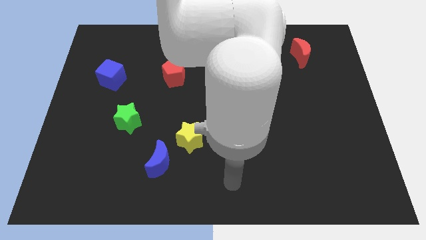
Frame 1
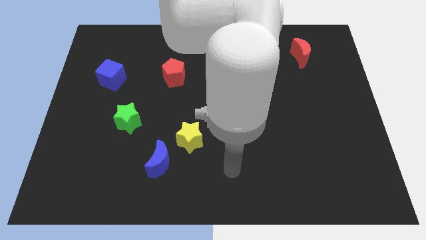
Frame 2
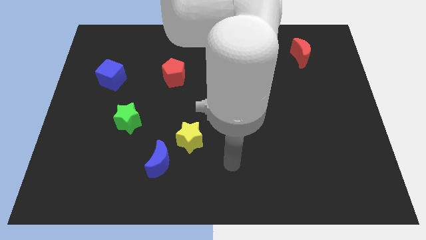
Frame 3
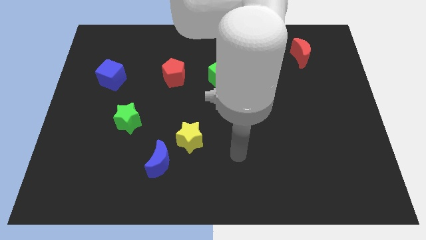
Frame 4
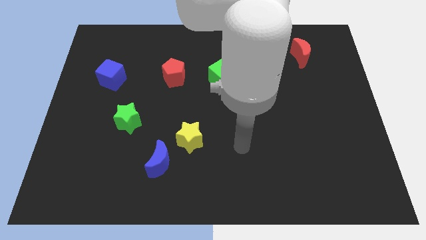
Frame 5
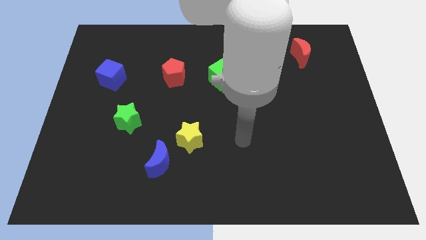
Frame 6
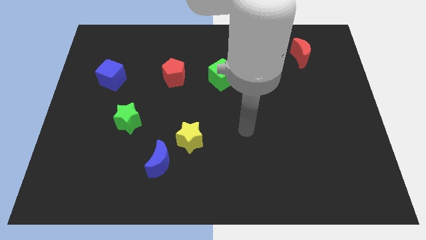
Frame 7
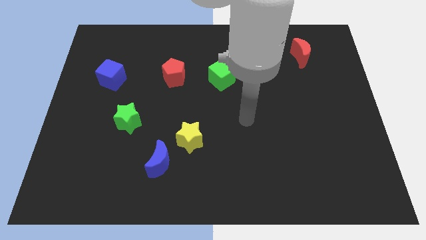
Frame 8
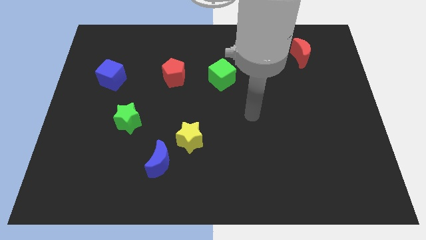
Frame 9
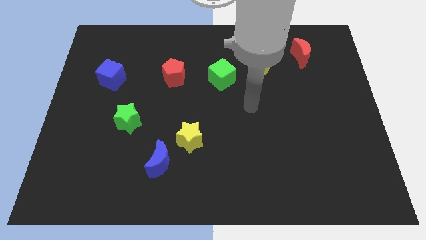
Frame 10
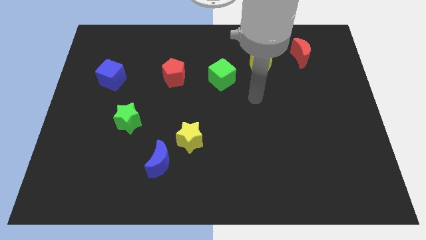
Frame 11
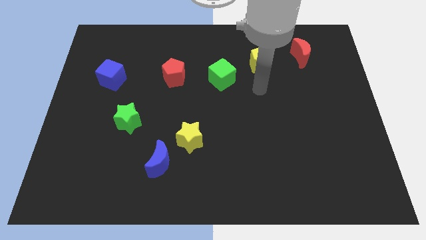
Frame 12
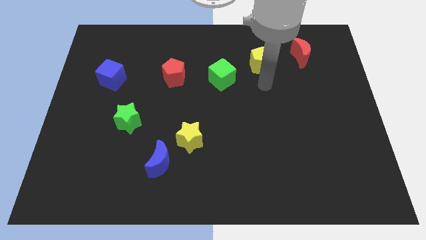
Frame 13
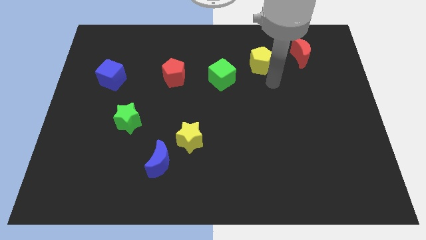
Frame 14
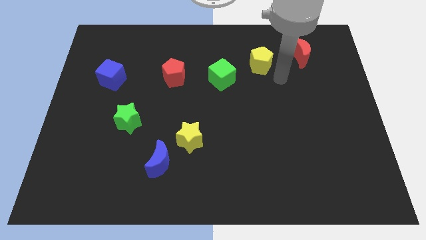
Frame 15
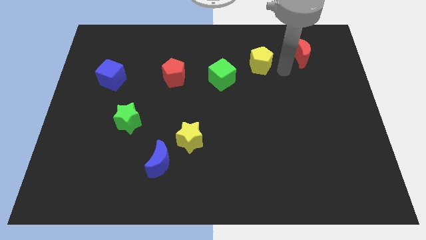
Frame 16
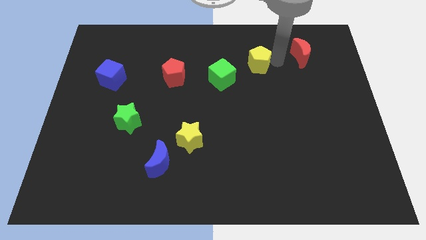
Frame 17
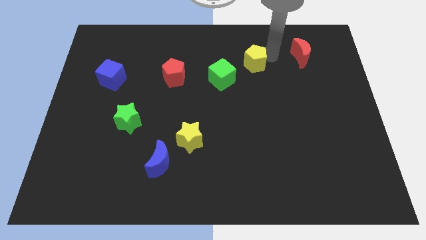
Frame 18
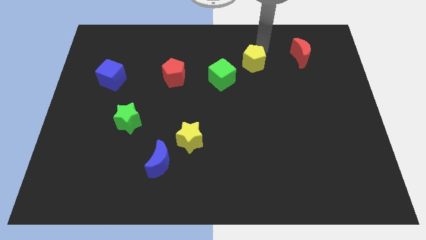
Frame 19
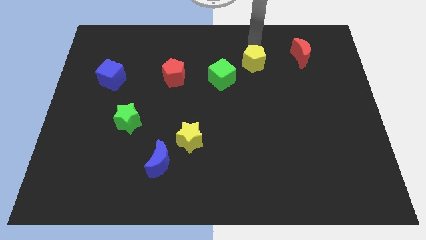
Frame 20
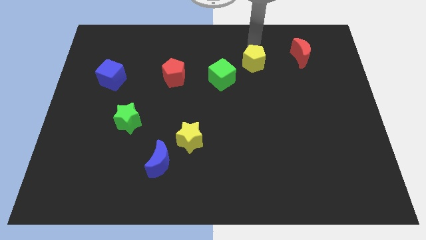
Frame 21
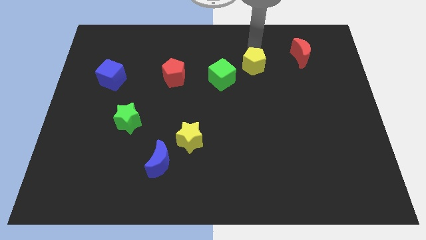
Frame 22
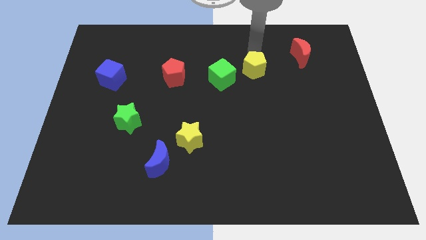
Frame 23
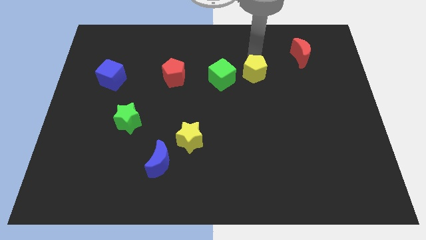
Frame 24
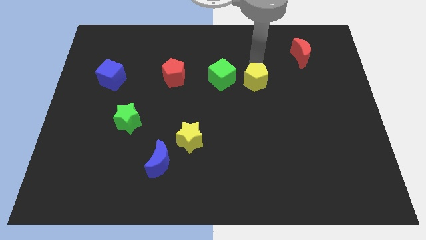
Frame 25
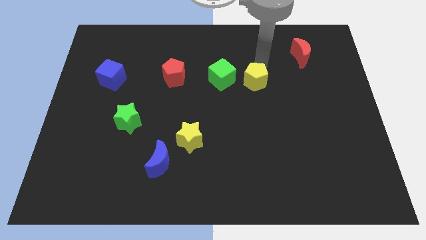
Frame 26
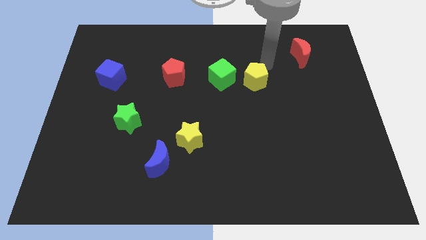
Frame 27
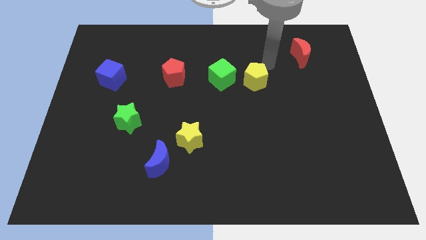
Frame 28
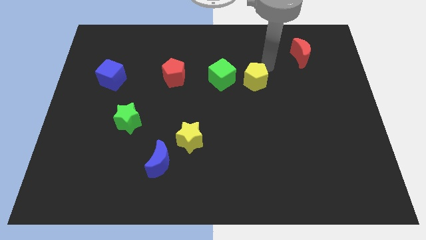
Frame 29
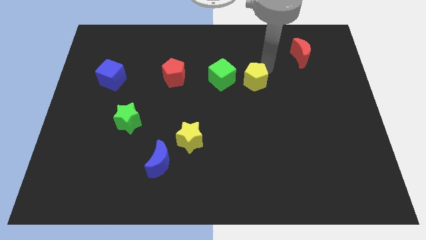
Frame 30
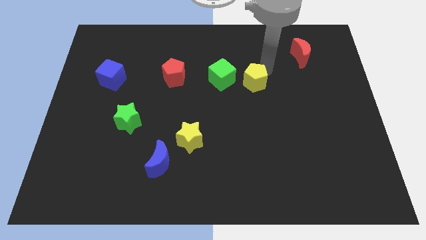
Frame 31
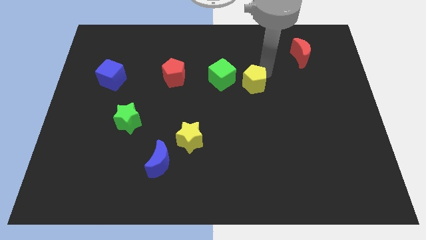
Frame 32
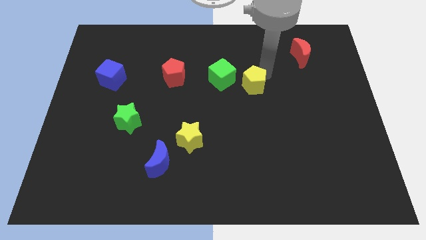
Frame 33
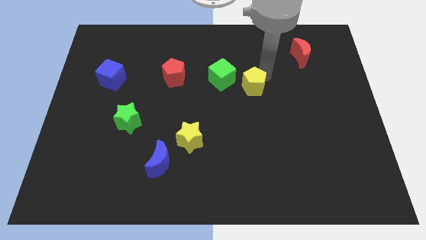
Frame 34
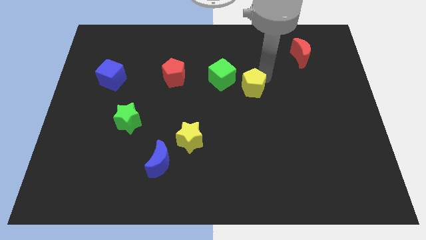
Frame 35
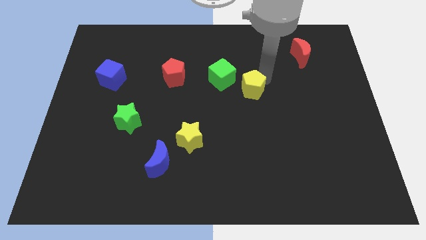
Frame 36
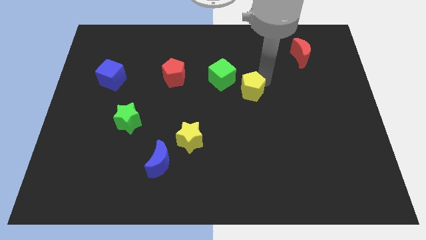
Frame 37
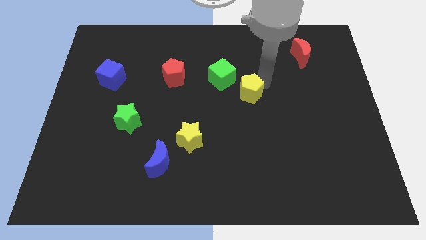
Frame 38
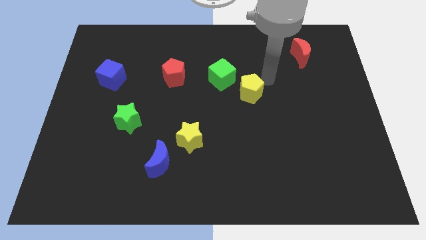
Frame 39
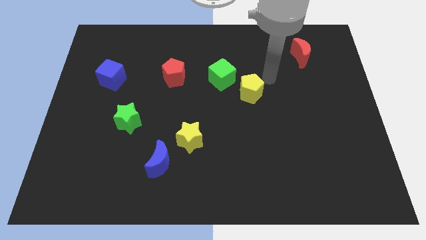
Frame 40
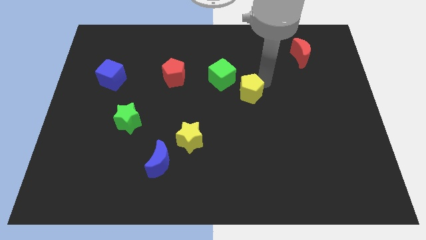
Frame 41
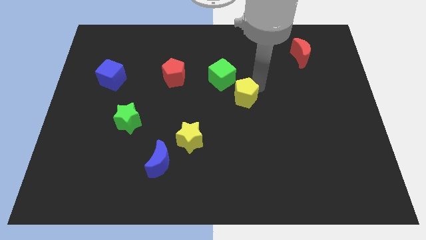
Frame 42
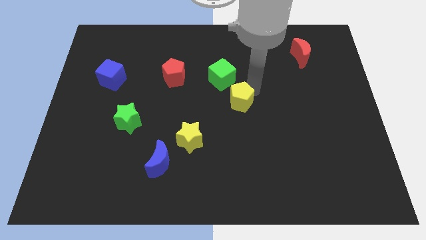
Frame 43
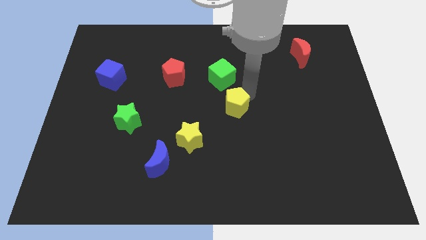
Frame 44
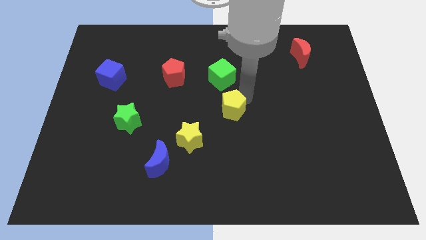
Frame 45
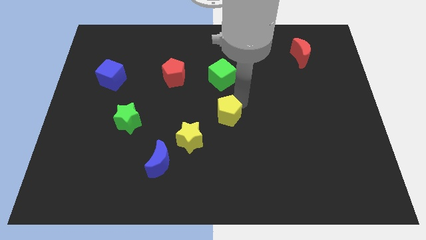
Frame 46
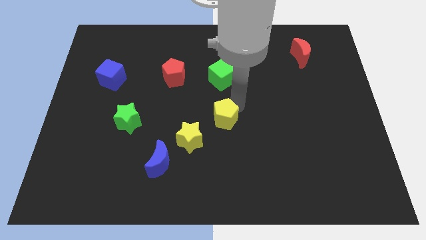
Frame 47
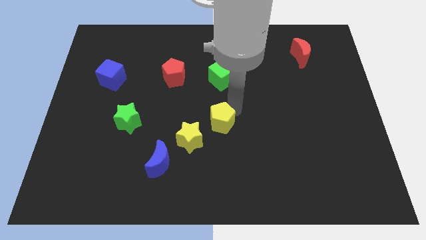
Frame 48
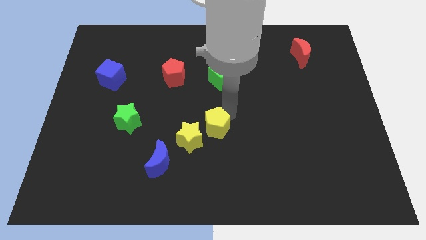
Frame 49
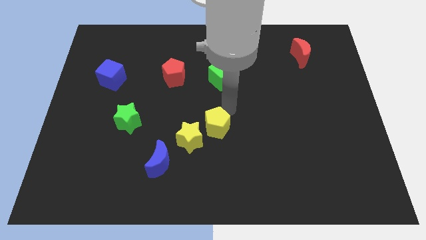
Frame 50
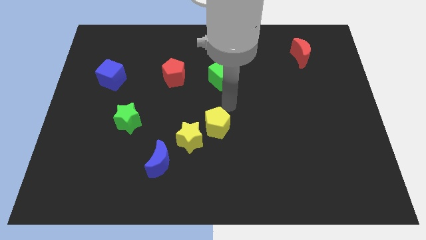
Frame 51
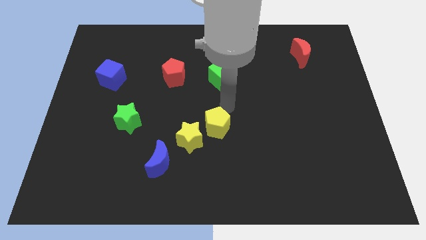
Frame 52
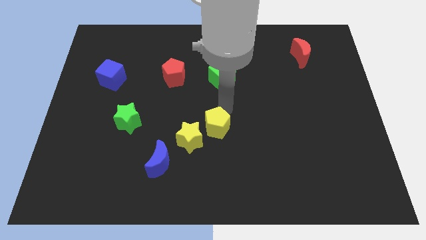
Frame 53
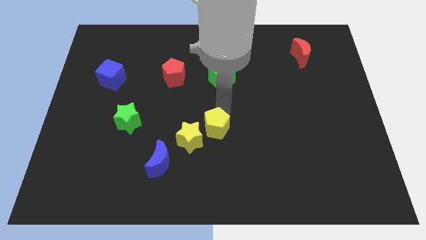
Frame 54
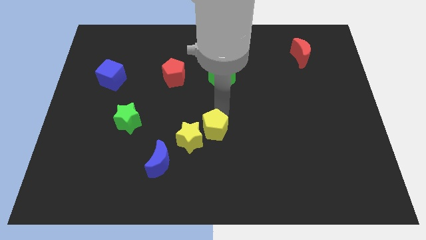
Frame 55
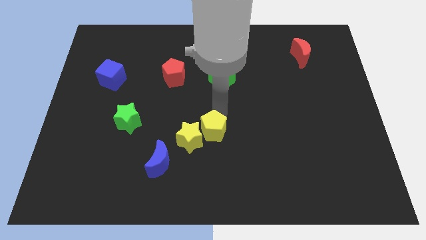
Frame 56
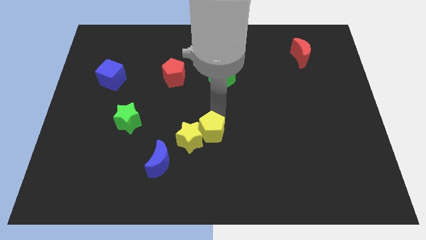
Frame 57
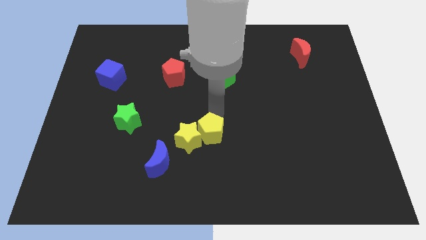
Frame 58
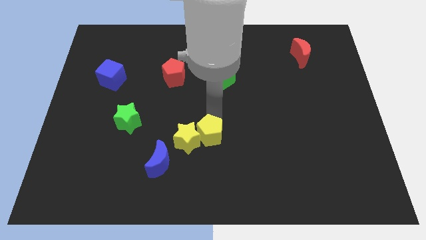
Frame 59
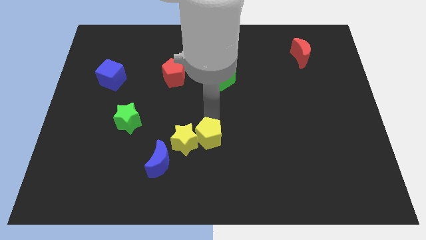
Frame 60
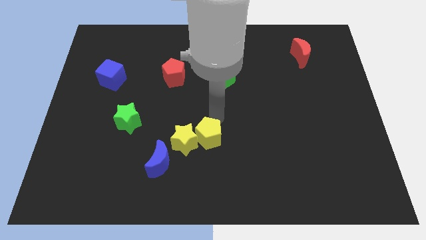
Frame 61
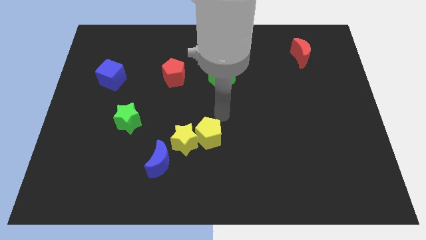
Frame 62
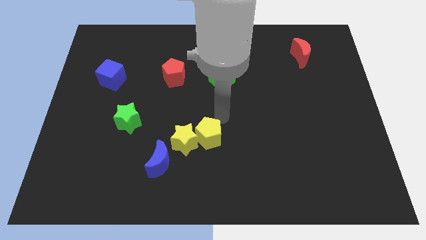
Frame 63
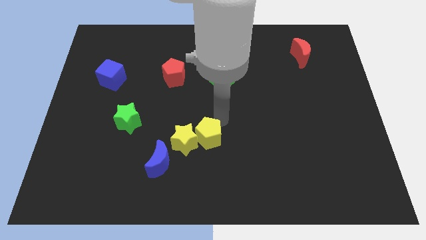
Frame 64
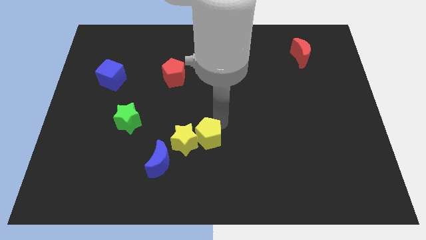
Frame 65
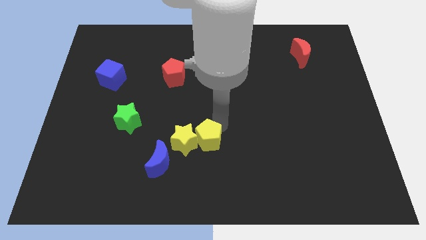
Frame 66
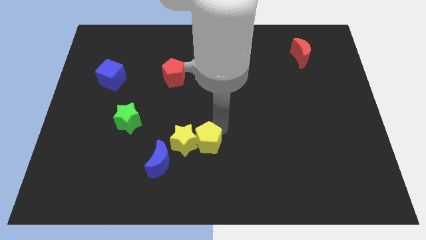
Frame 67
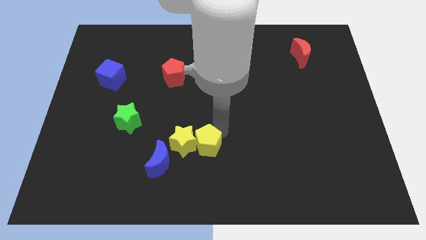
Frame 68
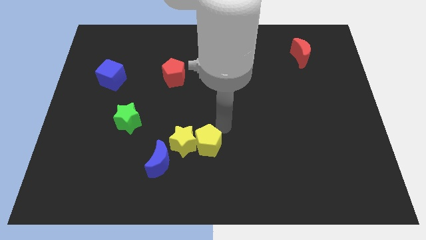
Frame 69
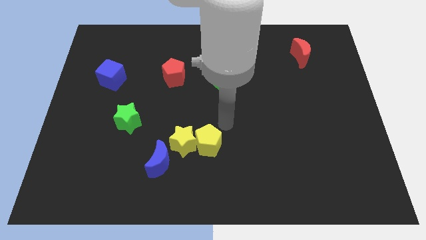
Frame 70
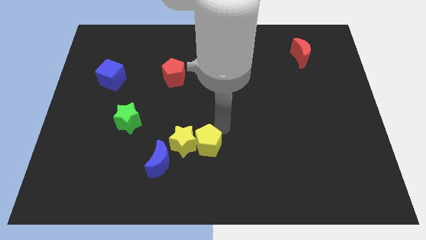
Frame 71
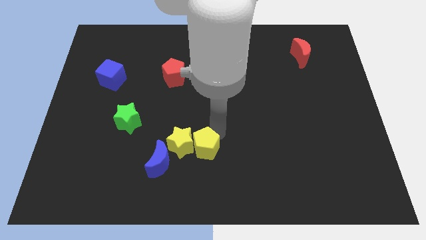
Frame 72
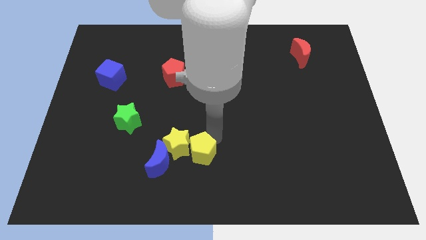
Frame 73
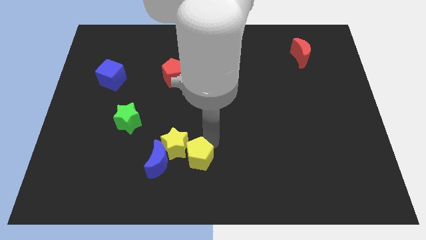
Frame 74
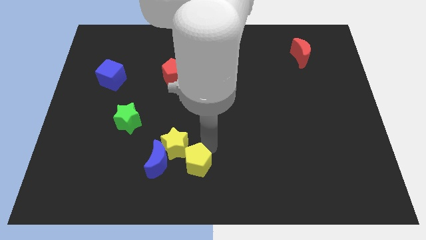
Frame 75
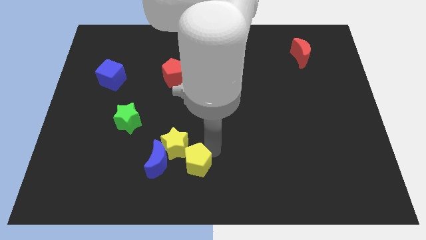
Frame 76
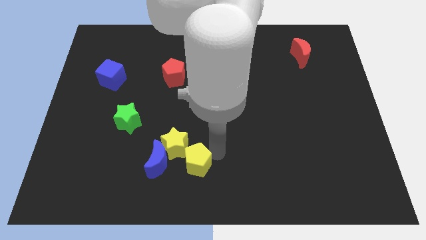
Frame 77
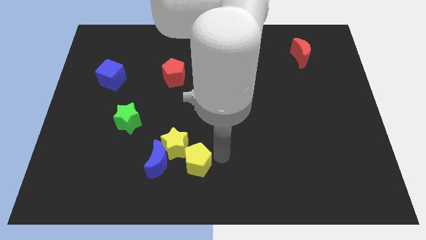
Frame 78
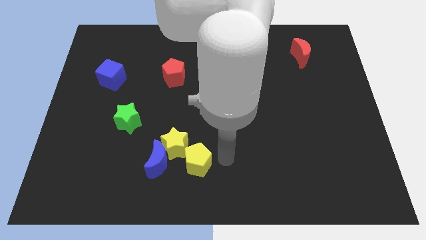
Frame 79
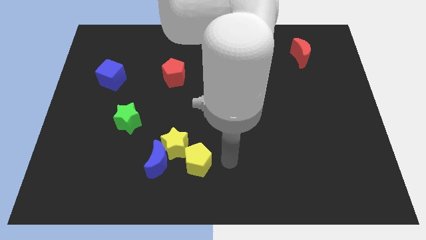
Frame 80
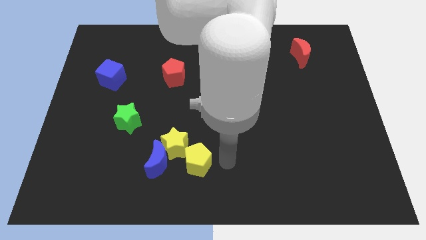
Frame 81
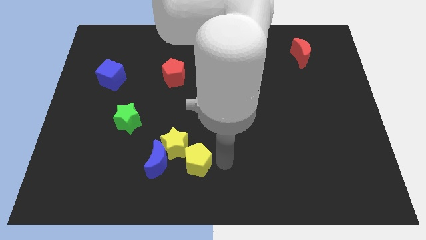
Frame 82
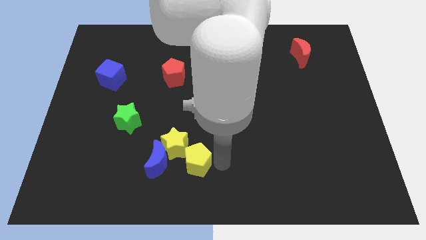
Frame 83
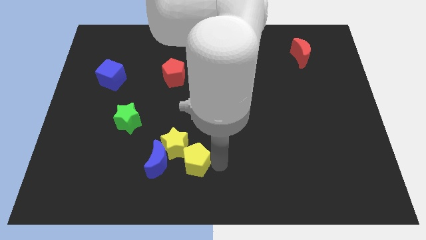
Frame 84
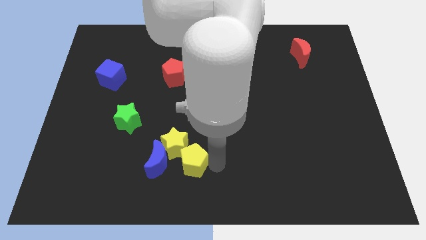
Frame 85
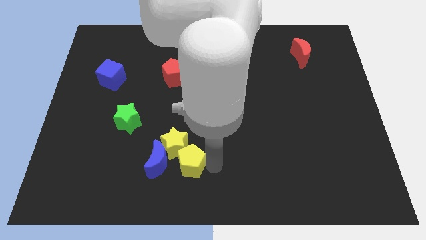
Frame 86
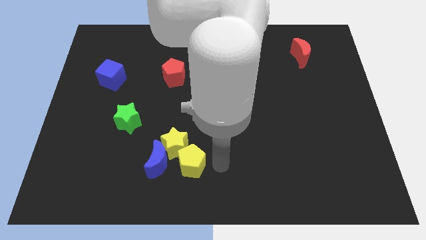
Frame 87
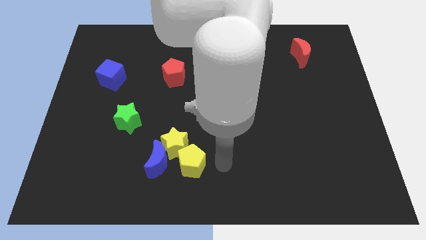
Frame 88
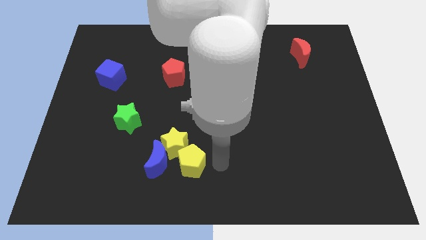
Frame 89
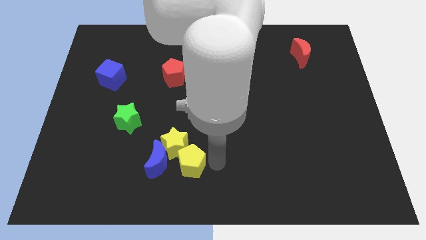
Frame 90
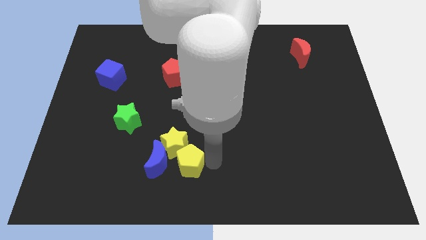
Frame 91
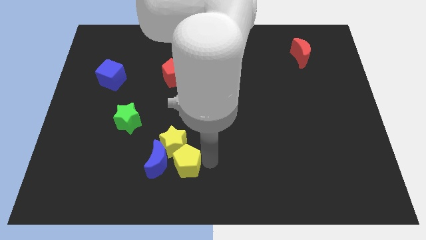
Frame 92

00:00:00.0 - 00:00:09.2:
move the yellow pentagon to the blue moon
